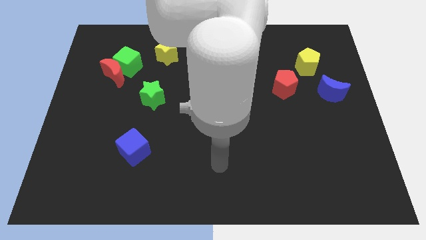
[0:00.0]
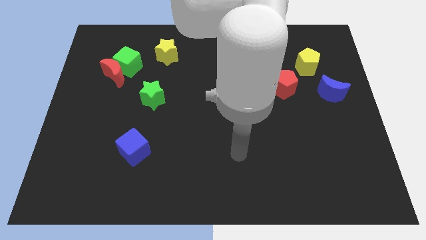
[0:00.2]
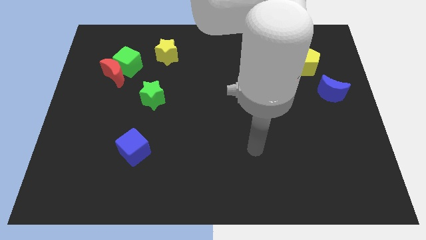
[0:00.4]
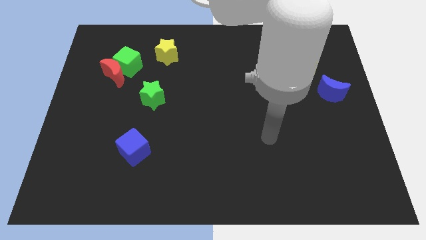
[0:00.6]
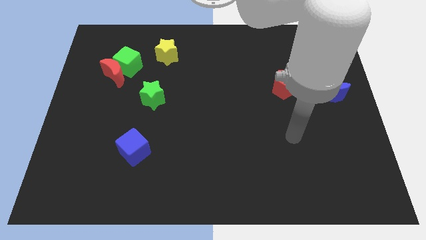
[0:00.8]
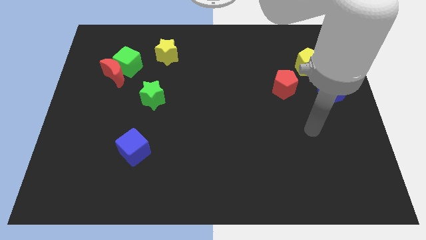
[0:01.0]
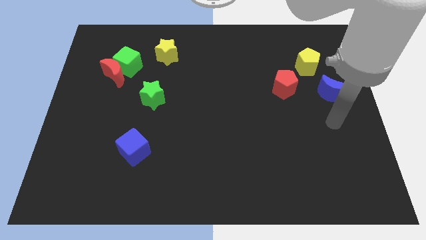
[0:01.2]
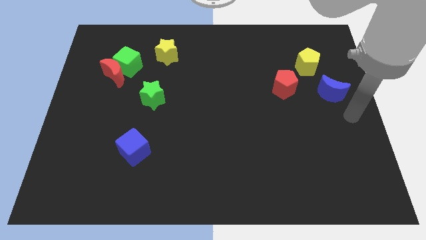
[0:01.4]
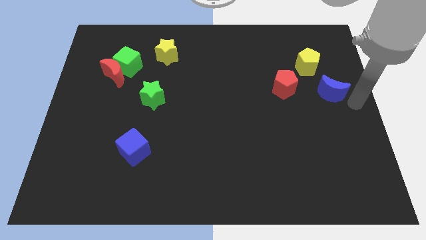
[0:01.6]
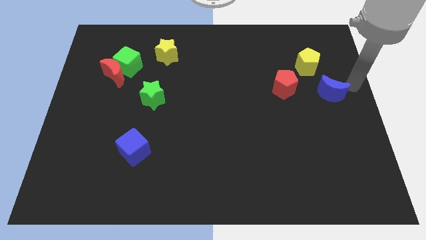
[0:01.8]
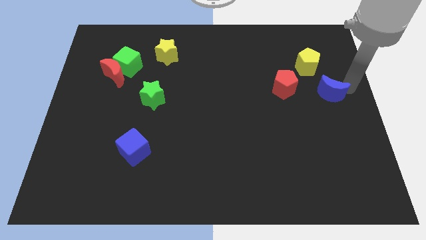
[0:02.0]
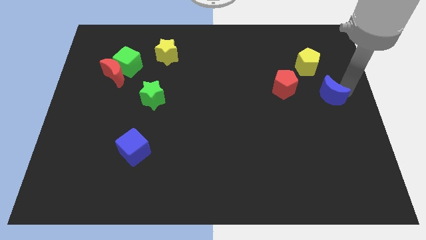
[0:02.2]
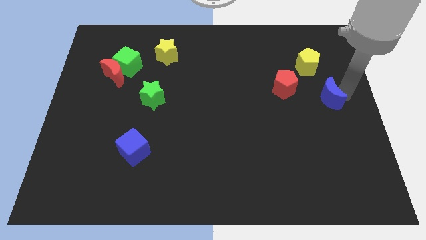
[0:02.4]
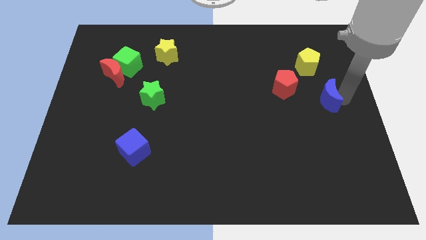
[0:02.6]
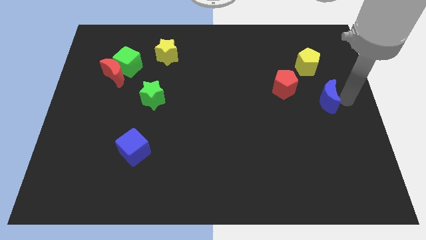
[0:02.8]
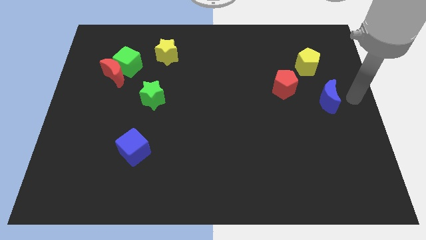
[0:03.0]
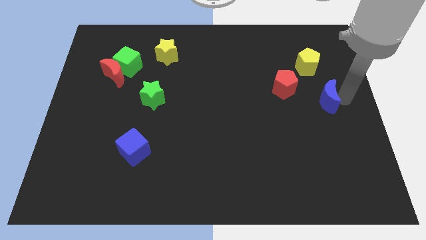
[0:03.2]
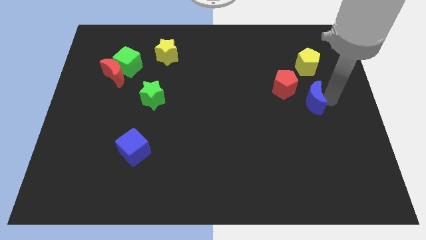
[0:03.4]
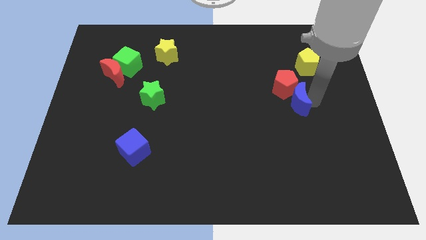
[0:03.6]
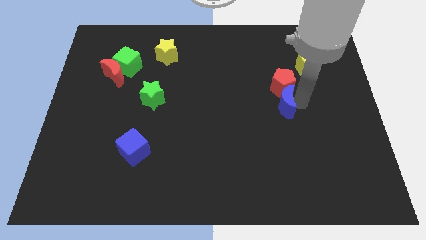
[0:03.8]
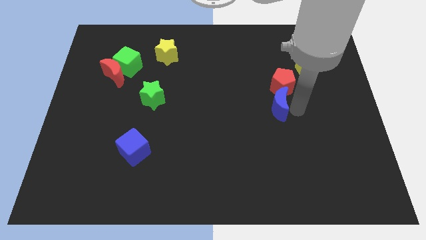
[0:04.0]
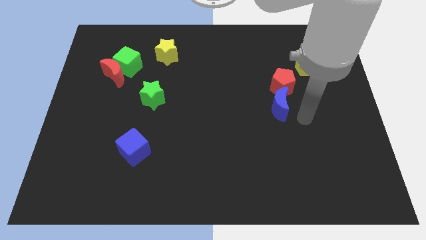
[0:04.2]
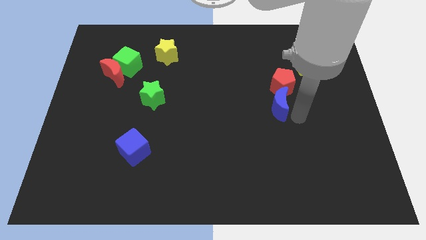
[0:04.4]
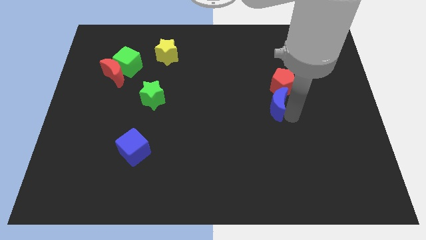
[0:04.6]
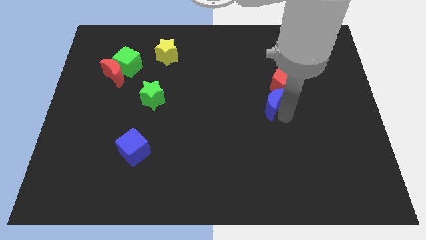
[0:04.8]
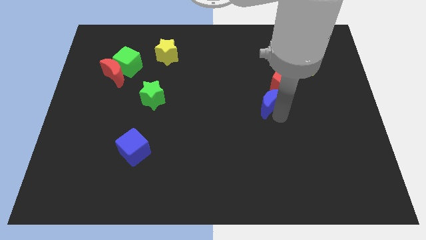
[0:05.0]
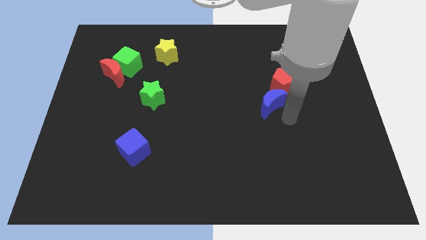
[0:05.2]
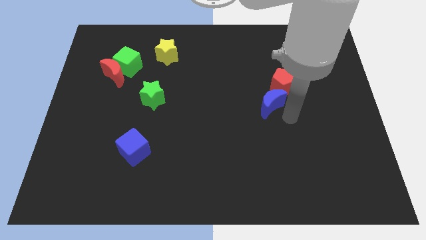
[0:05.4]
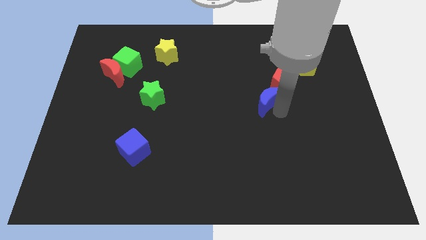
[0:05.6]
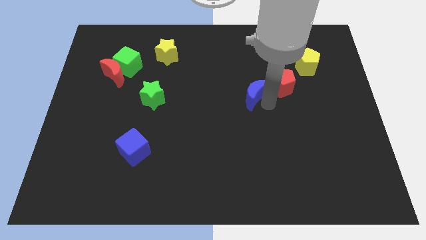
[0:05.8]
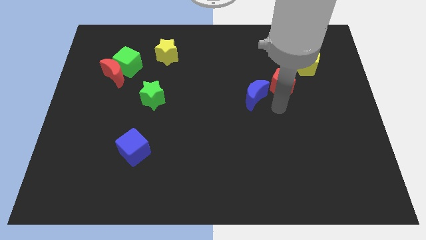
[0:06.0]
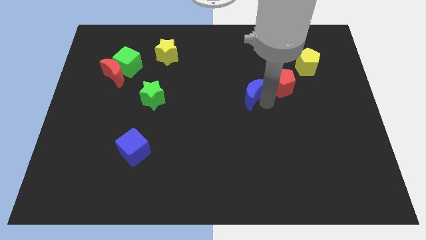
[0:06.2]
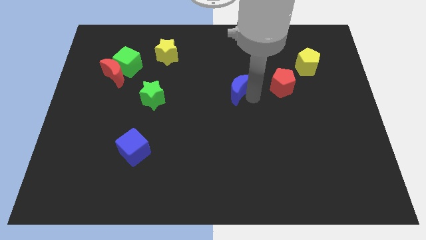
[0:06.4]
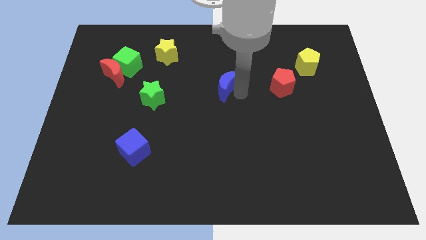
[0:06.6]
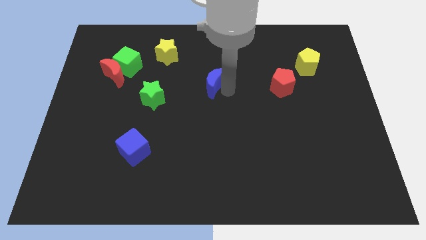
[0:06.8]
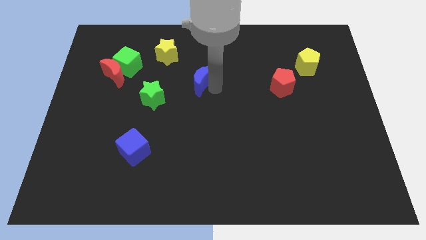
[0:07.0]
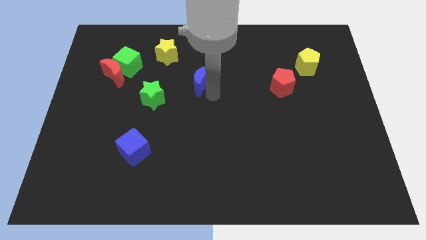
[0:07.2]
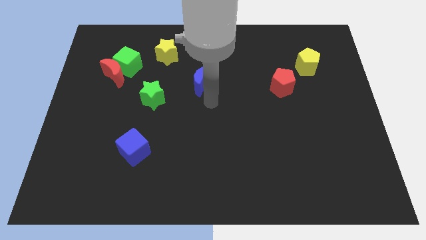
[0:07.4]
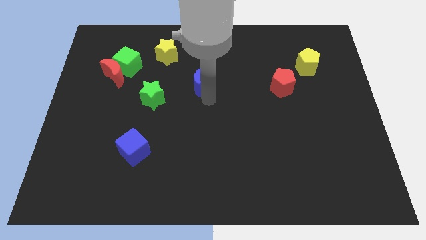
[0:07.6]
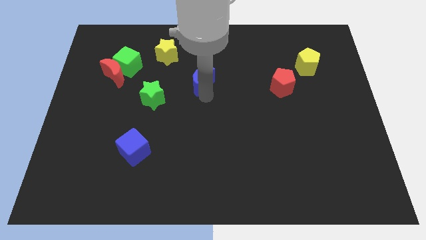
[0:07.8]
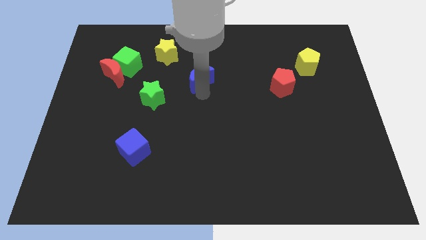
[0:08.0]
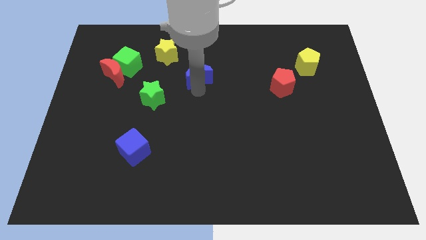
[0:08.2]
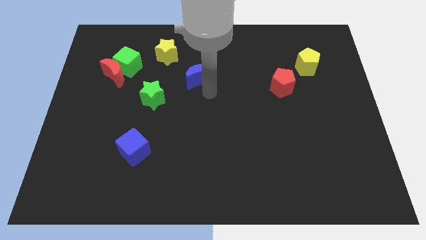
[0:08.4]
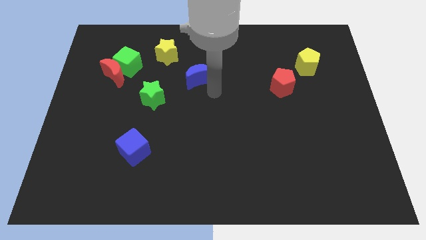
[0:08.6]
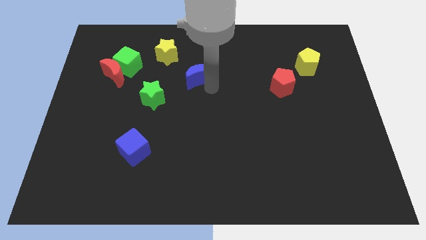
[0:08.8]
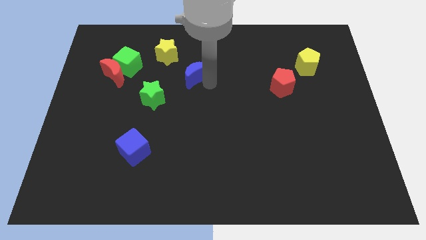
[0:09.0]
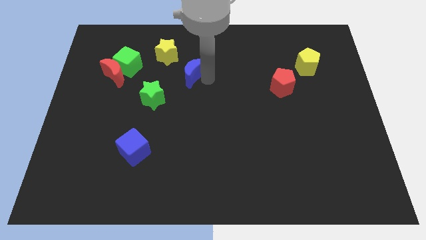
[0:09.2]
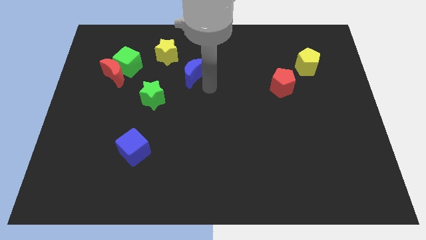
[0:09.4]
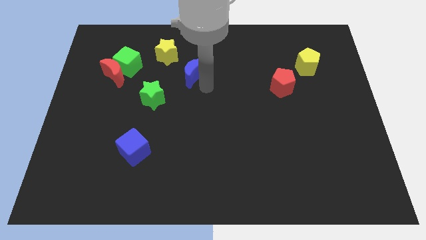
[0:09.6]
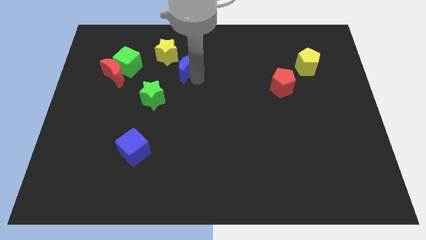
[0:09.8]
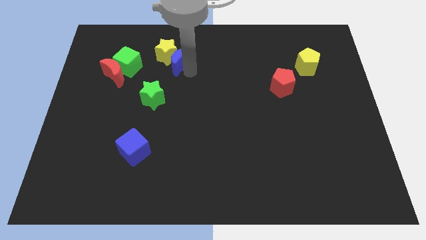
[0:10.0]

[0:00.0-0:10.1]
push the blue moon next to the yellow star

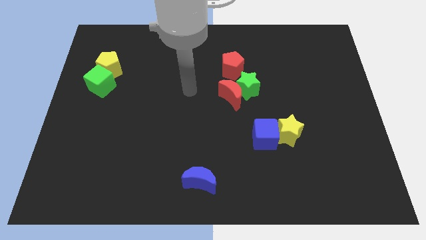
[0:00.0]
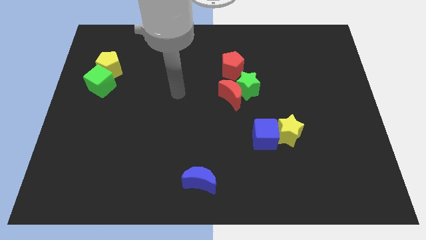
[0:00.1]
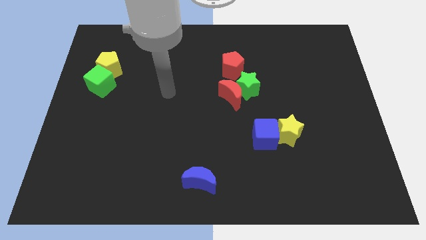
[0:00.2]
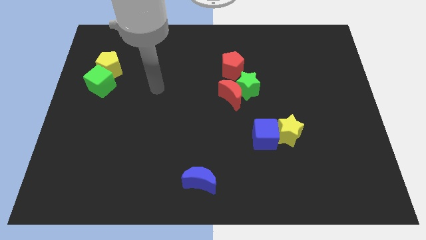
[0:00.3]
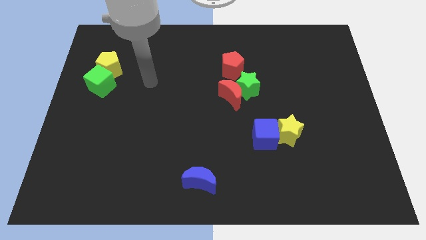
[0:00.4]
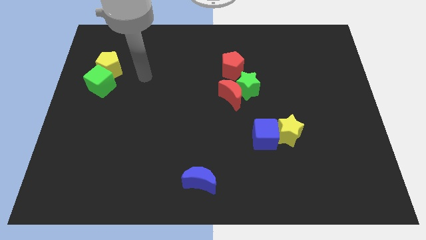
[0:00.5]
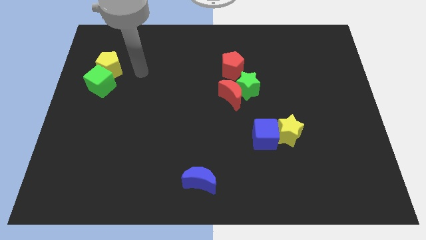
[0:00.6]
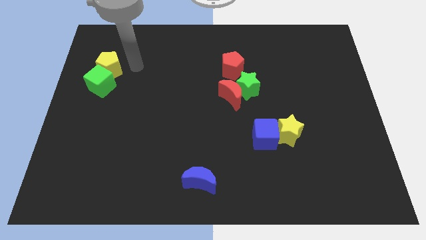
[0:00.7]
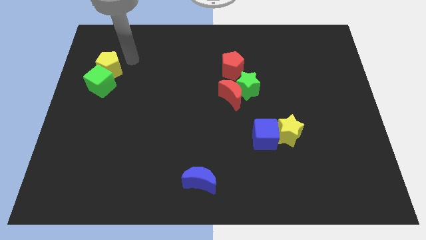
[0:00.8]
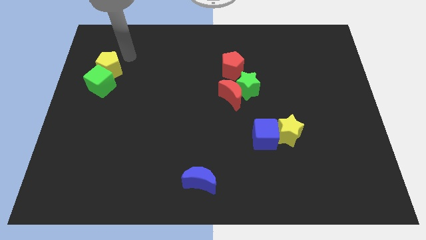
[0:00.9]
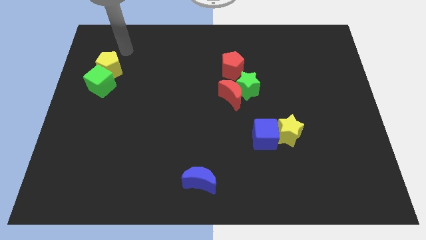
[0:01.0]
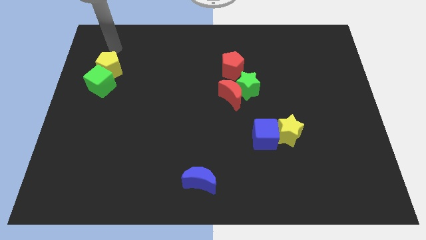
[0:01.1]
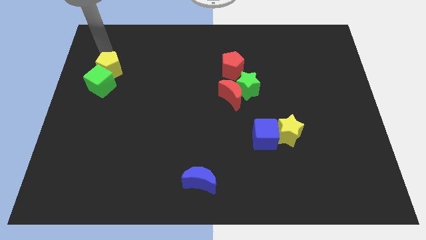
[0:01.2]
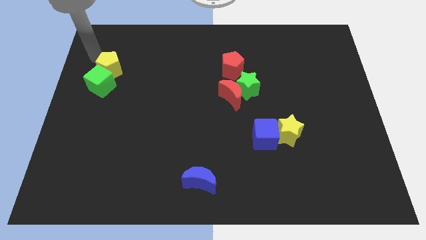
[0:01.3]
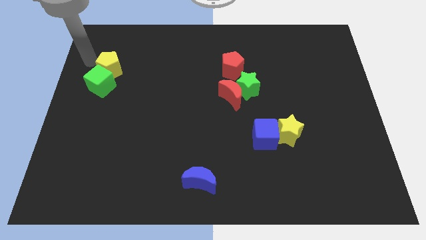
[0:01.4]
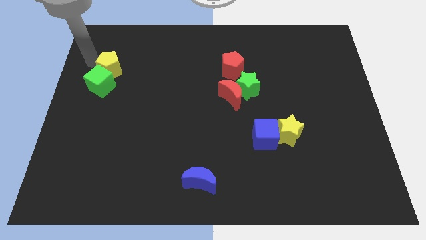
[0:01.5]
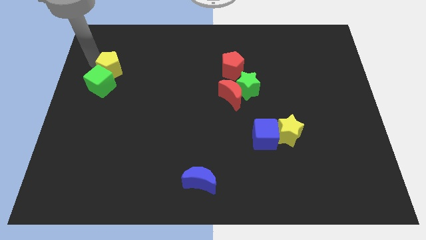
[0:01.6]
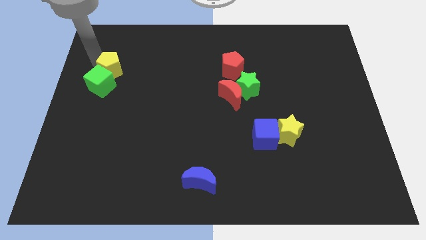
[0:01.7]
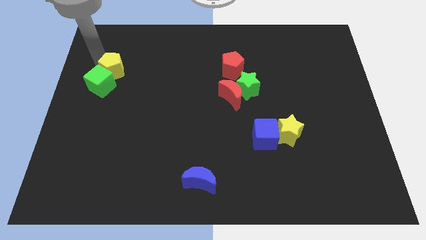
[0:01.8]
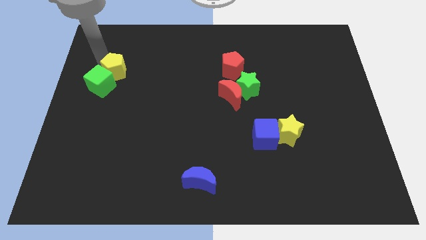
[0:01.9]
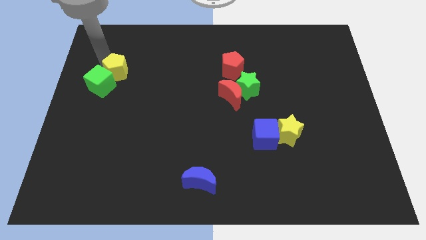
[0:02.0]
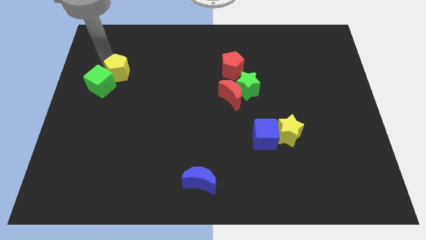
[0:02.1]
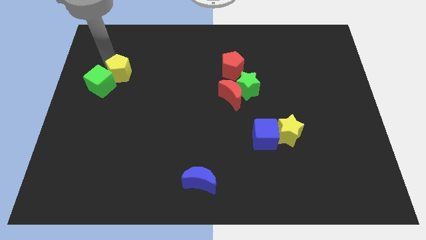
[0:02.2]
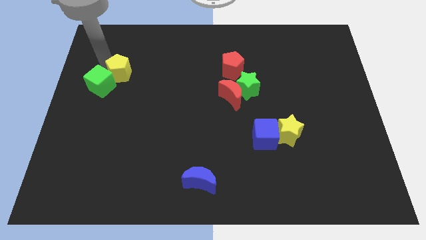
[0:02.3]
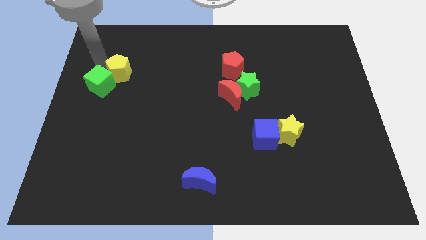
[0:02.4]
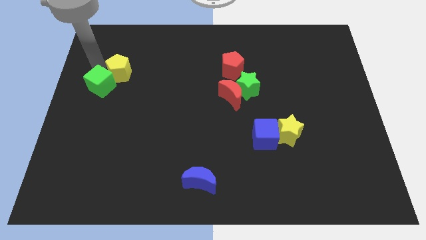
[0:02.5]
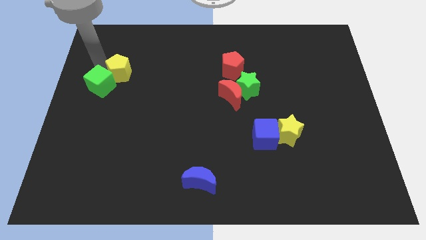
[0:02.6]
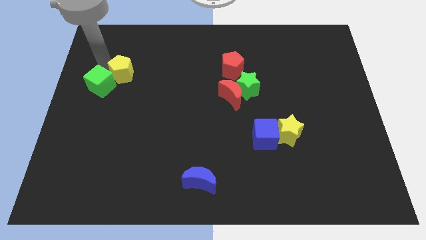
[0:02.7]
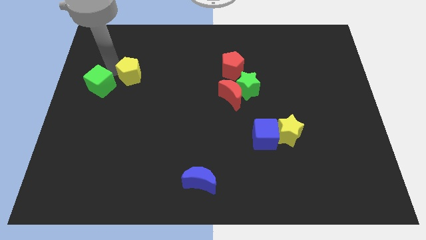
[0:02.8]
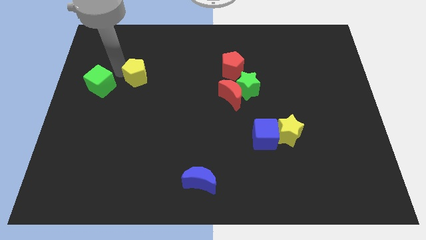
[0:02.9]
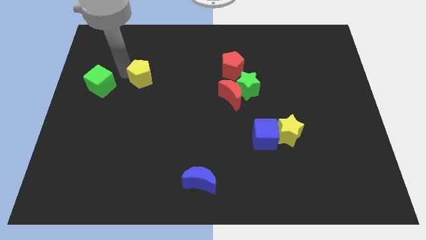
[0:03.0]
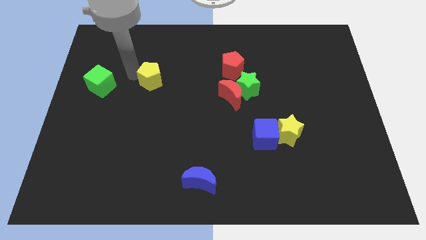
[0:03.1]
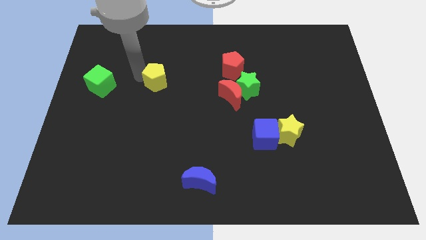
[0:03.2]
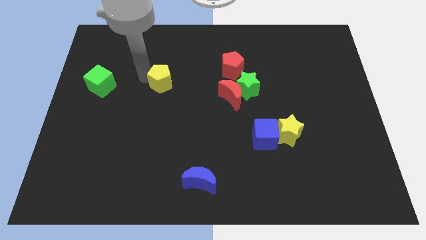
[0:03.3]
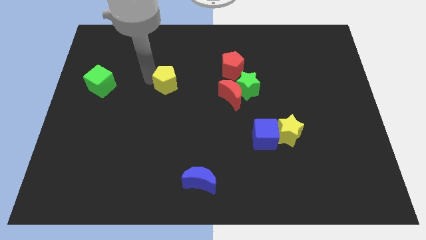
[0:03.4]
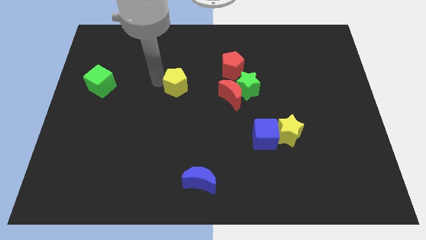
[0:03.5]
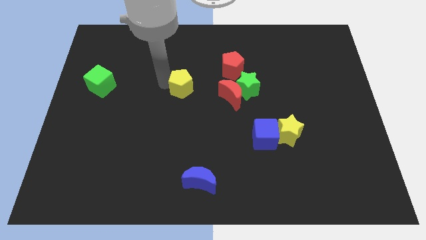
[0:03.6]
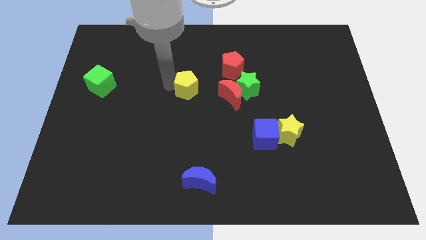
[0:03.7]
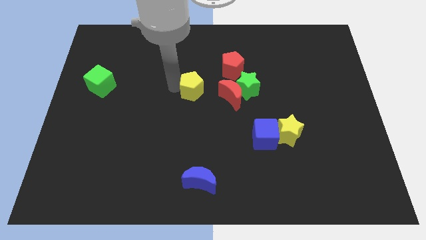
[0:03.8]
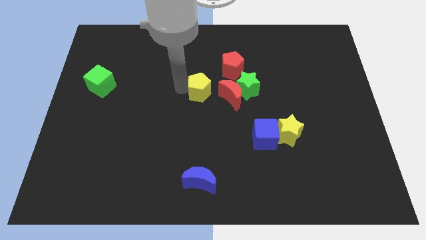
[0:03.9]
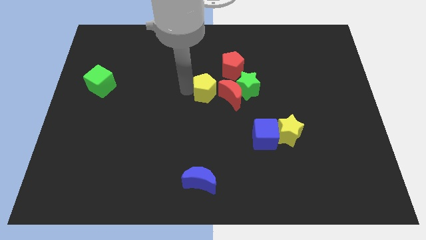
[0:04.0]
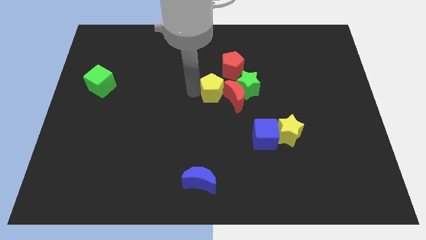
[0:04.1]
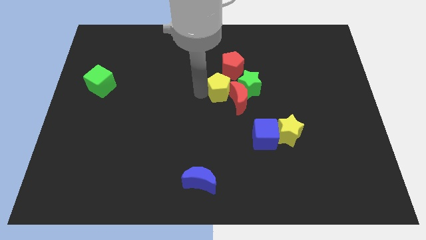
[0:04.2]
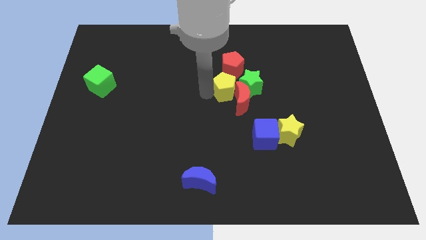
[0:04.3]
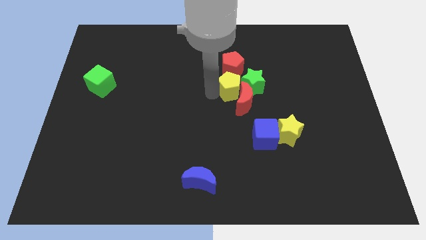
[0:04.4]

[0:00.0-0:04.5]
move the yellow pentagon close to the green star
